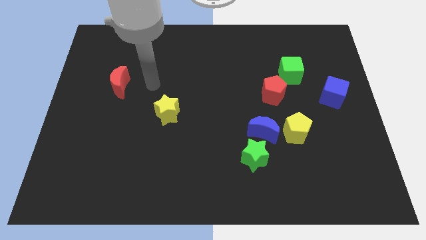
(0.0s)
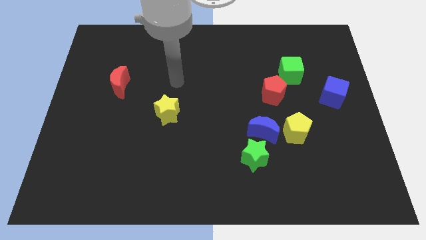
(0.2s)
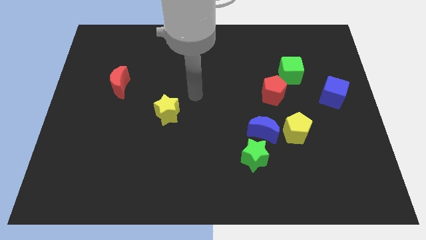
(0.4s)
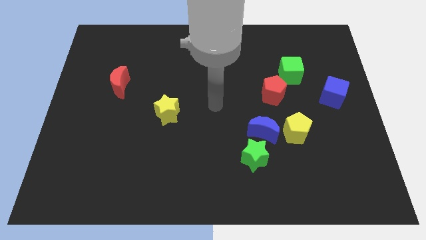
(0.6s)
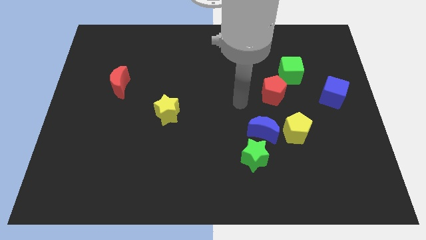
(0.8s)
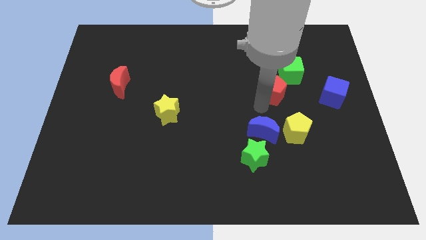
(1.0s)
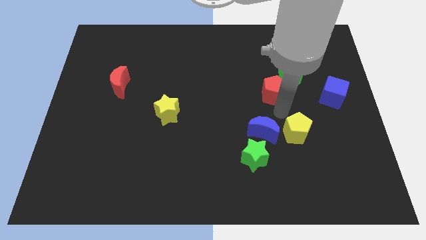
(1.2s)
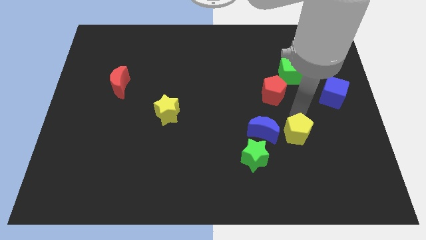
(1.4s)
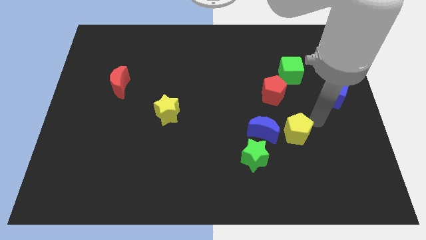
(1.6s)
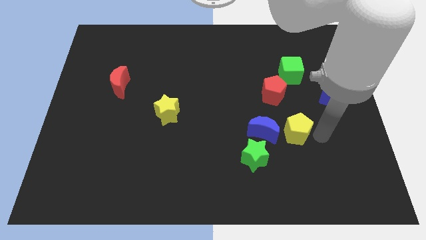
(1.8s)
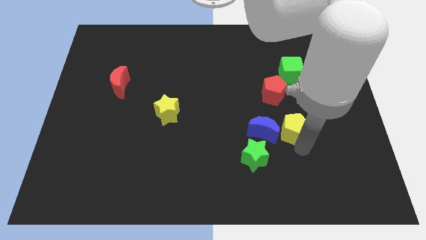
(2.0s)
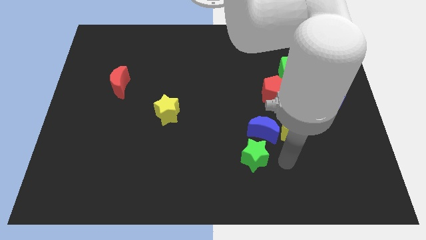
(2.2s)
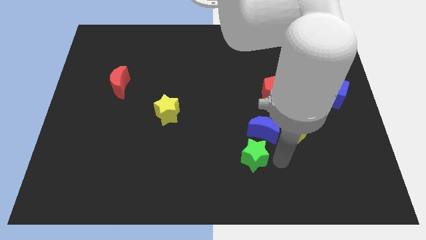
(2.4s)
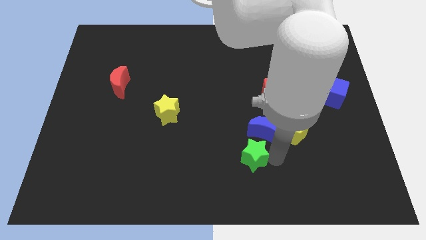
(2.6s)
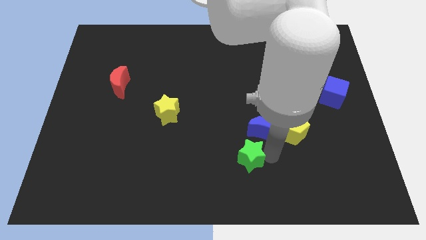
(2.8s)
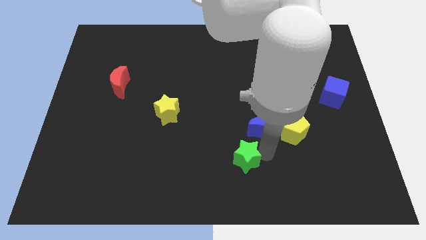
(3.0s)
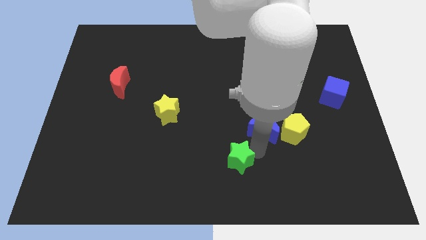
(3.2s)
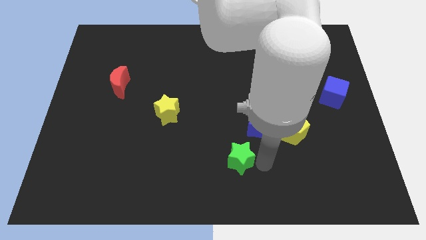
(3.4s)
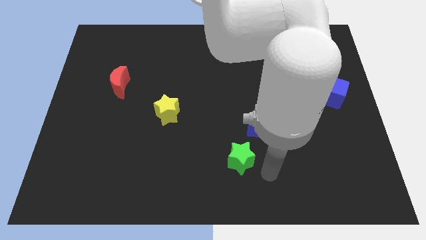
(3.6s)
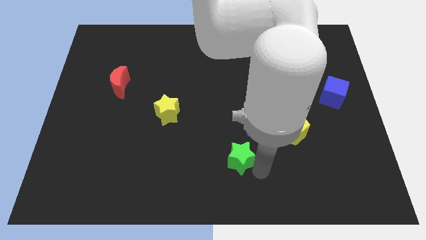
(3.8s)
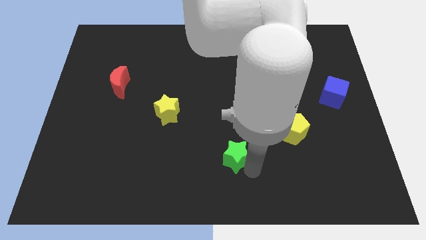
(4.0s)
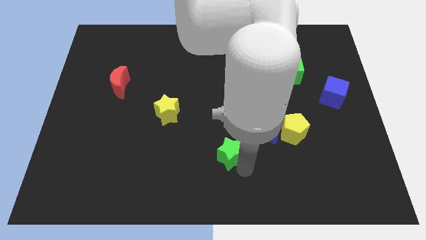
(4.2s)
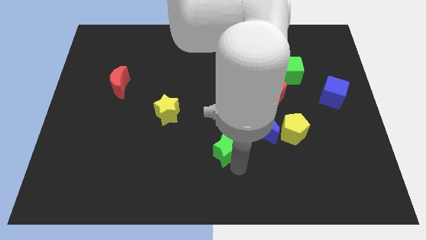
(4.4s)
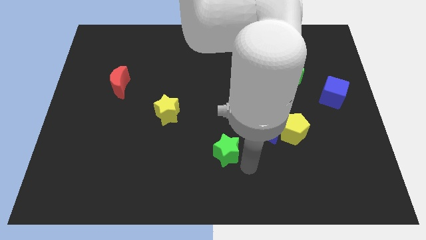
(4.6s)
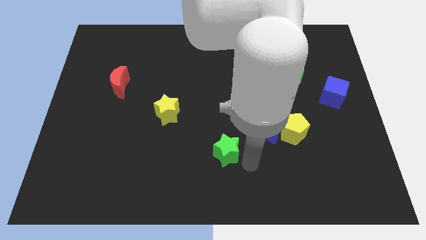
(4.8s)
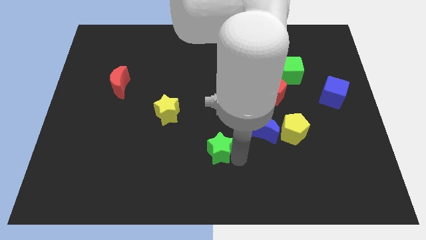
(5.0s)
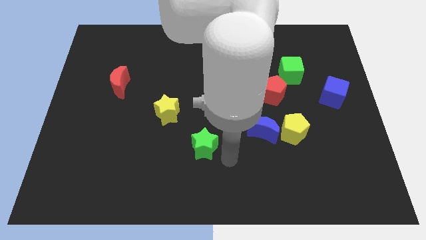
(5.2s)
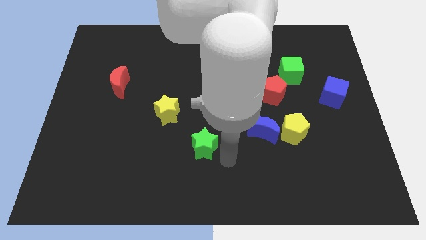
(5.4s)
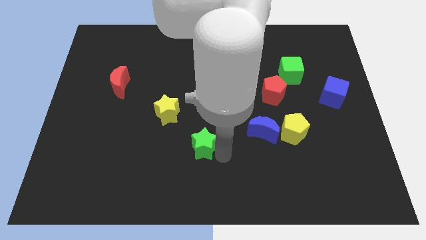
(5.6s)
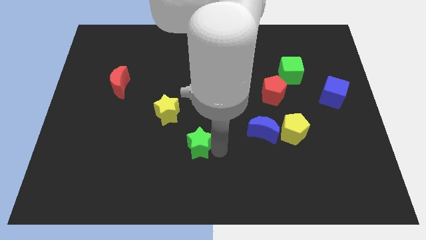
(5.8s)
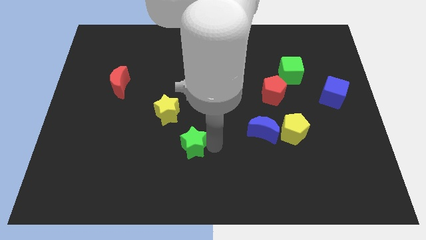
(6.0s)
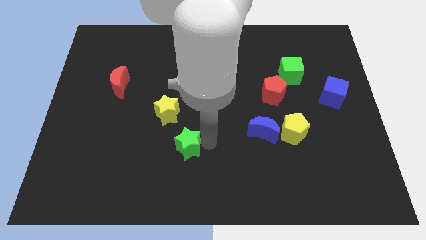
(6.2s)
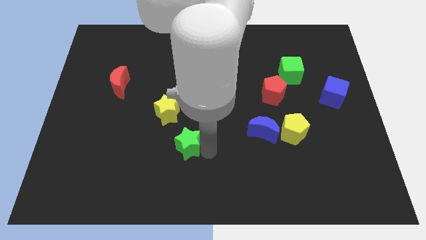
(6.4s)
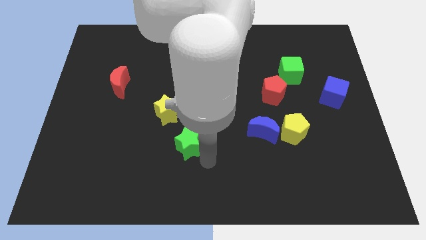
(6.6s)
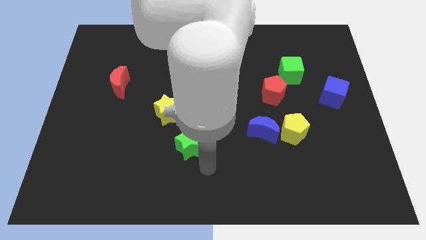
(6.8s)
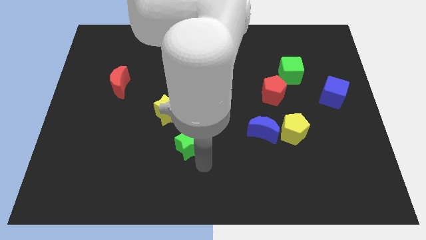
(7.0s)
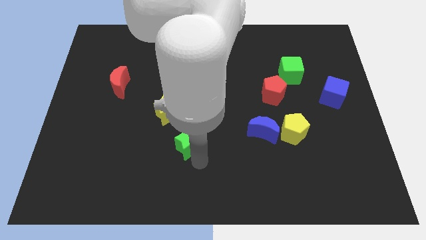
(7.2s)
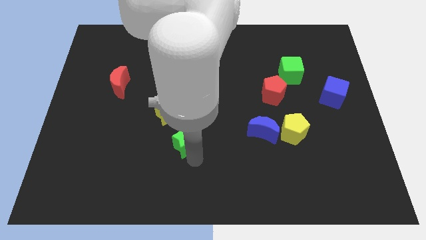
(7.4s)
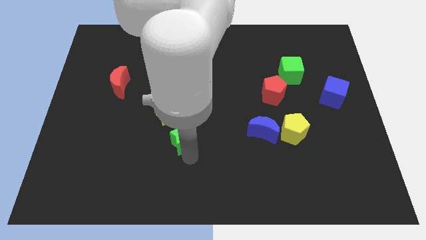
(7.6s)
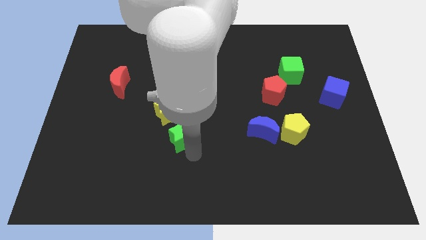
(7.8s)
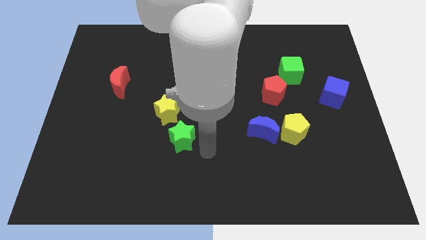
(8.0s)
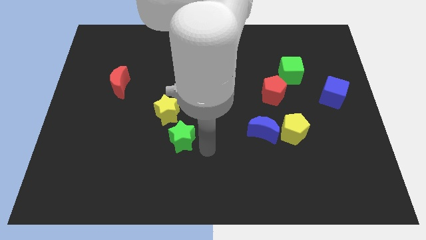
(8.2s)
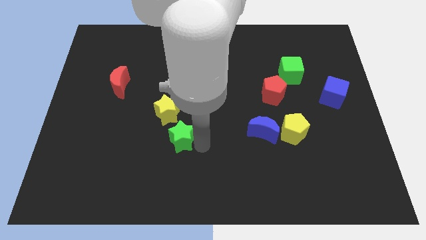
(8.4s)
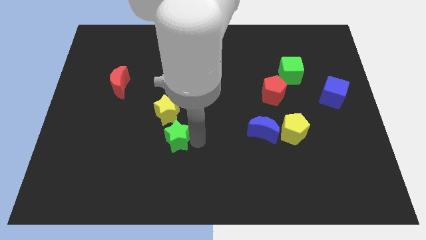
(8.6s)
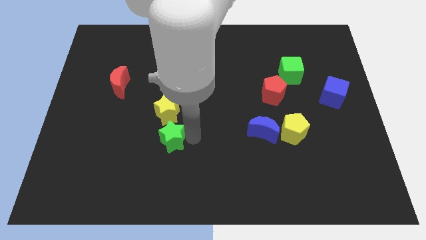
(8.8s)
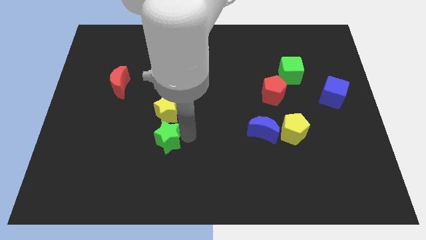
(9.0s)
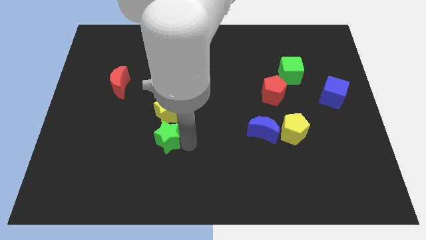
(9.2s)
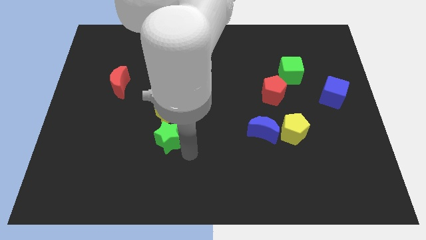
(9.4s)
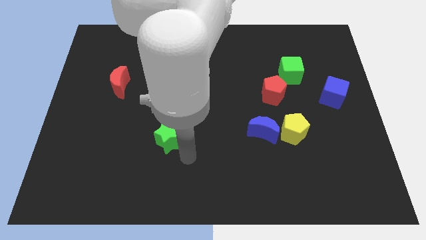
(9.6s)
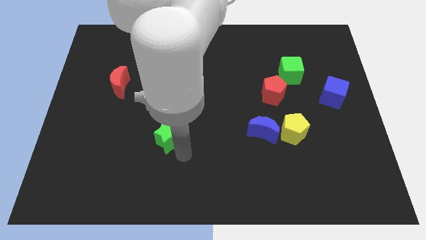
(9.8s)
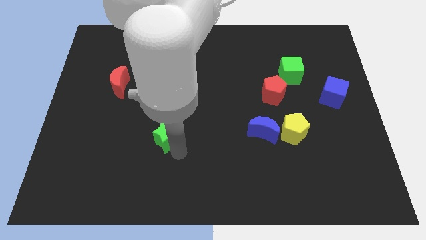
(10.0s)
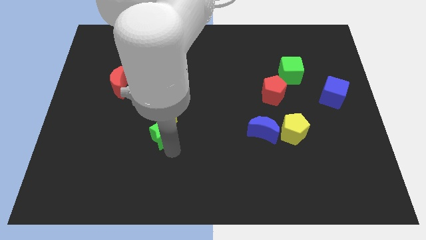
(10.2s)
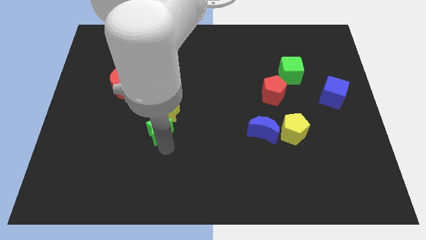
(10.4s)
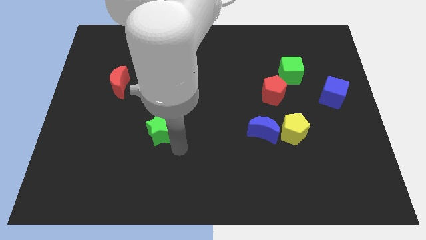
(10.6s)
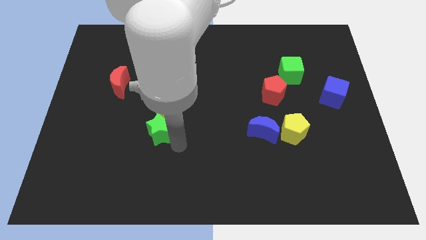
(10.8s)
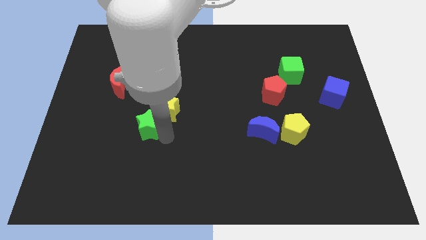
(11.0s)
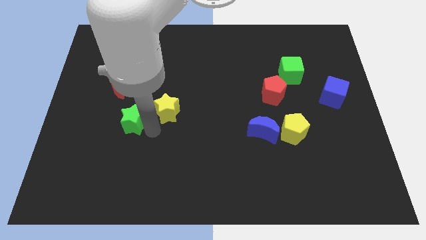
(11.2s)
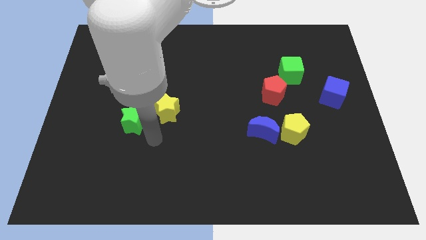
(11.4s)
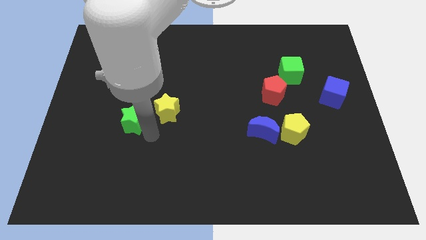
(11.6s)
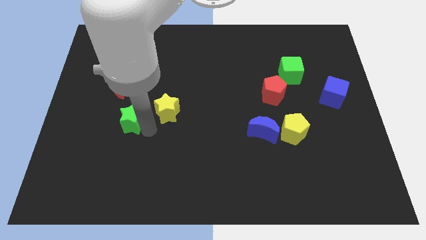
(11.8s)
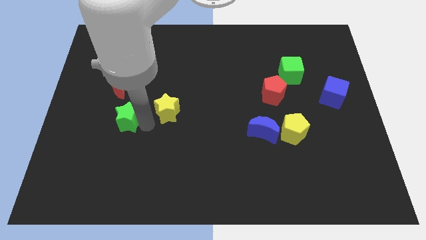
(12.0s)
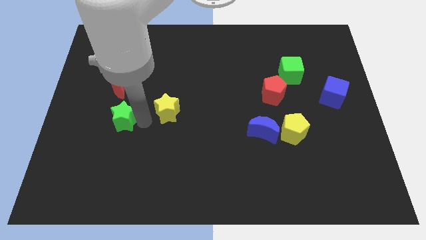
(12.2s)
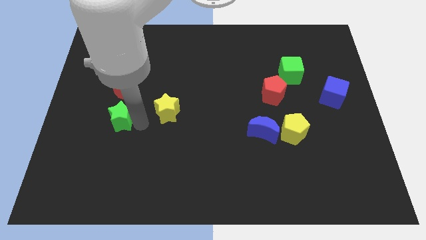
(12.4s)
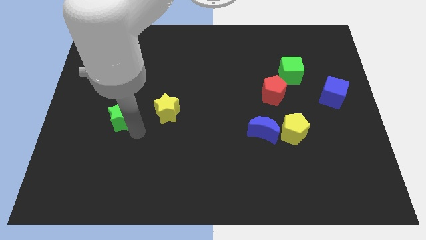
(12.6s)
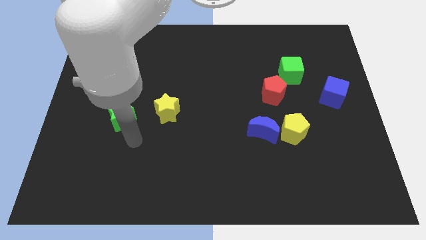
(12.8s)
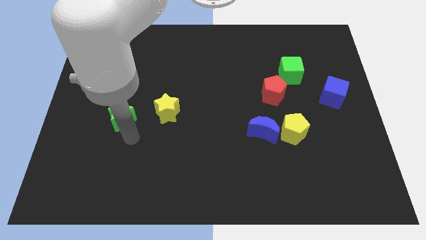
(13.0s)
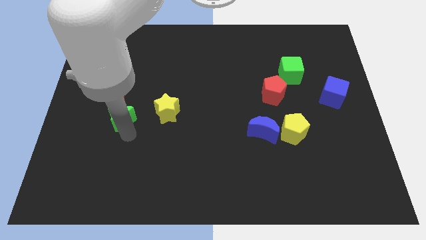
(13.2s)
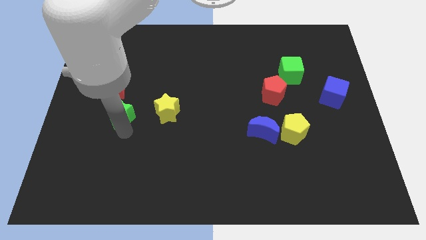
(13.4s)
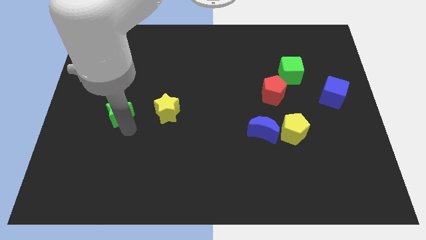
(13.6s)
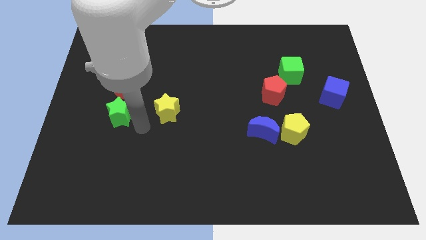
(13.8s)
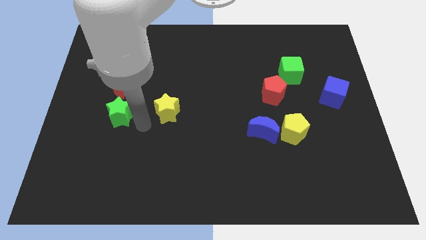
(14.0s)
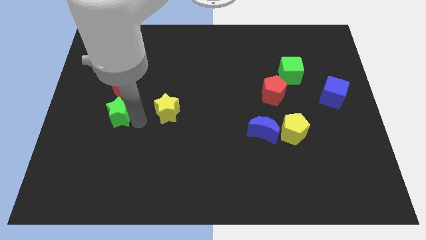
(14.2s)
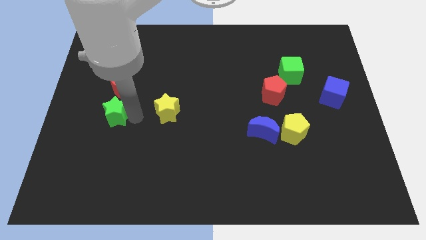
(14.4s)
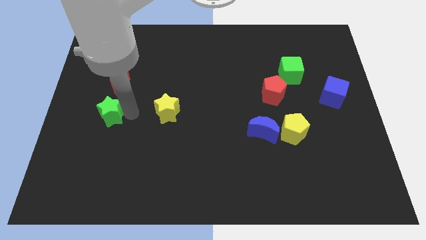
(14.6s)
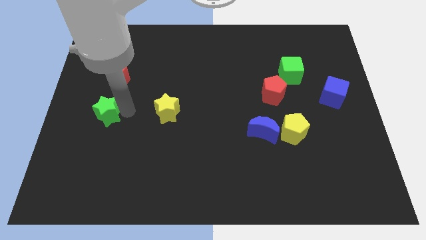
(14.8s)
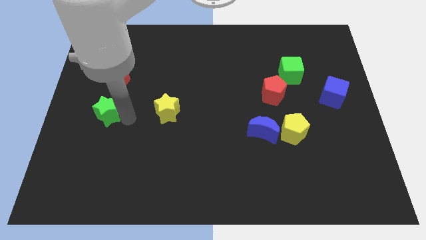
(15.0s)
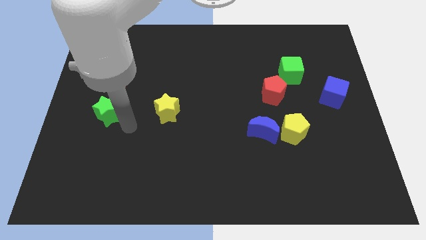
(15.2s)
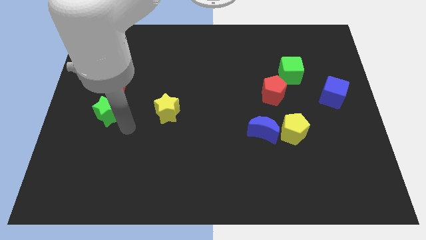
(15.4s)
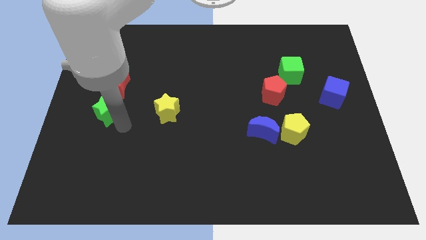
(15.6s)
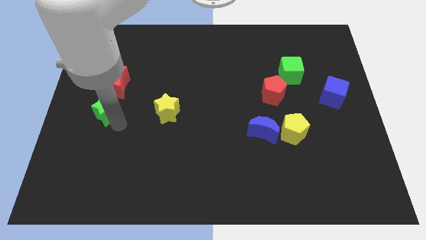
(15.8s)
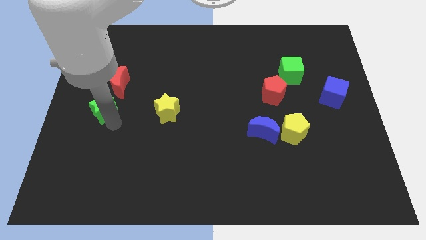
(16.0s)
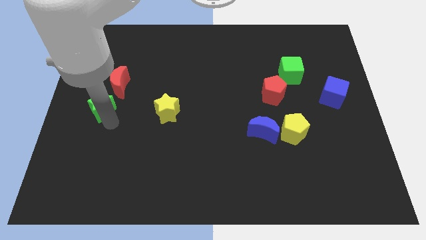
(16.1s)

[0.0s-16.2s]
push the green star to the left side
